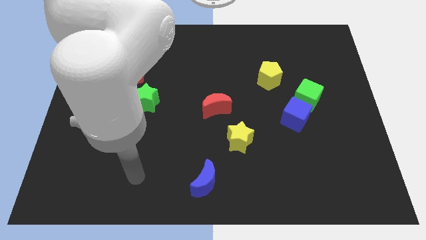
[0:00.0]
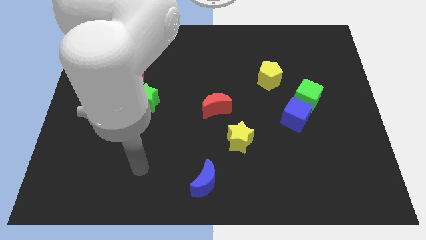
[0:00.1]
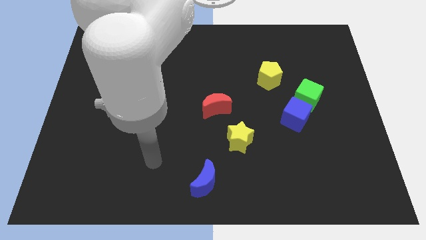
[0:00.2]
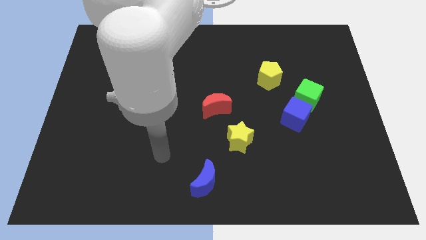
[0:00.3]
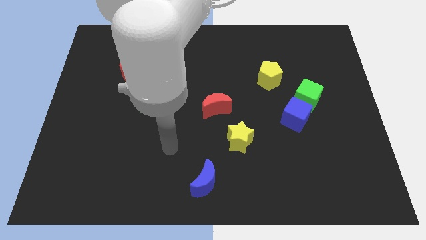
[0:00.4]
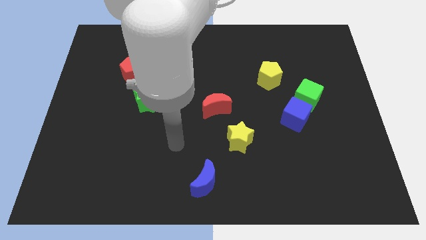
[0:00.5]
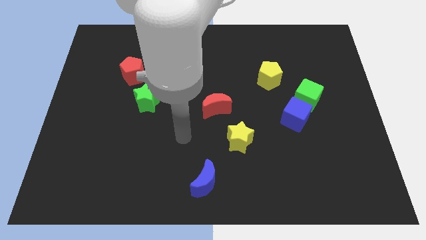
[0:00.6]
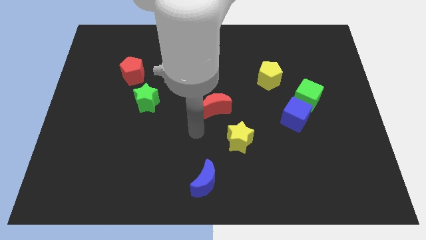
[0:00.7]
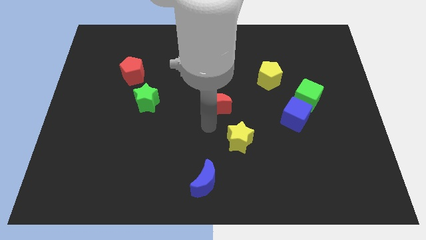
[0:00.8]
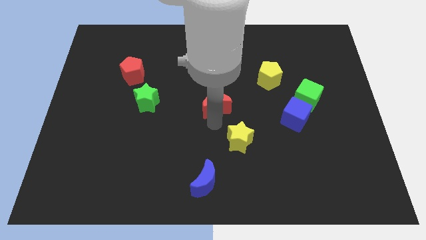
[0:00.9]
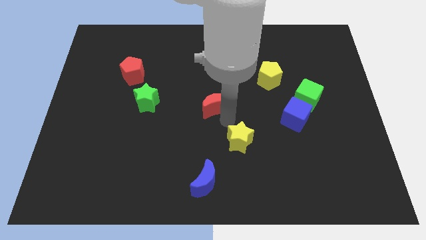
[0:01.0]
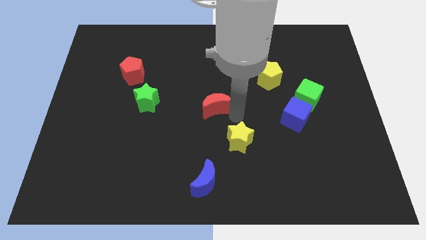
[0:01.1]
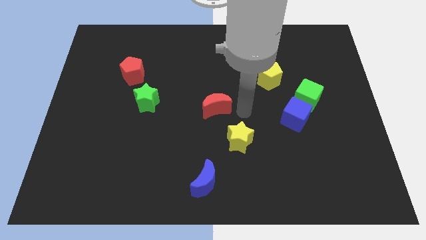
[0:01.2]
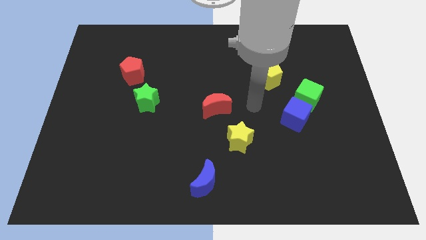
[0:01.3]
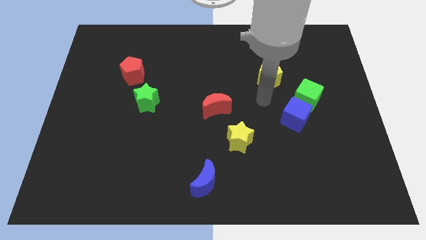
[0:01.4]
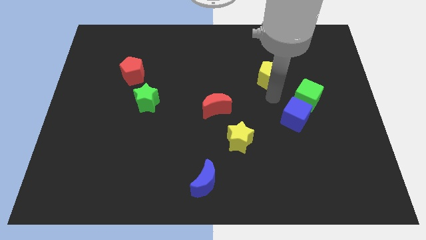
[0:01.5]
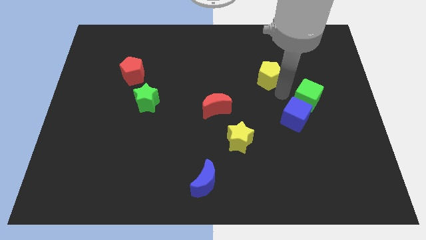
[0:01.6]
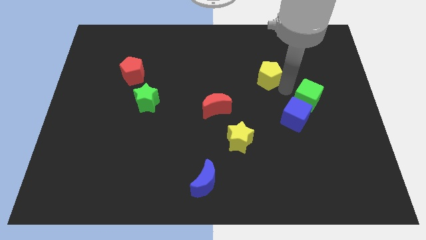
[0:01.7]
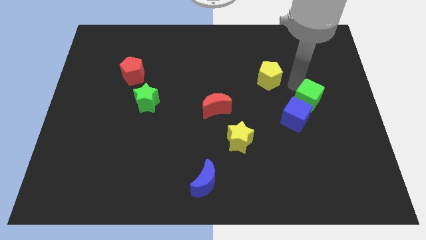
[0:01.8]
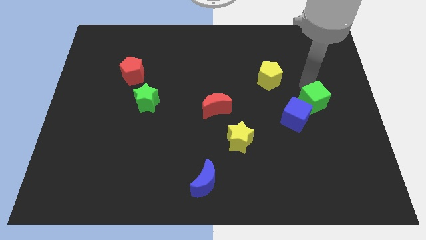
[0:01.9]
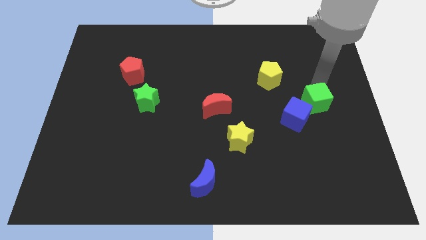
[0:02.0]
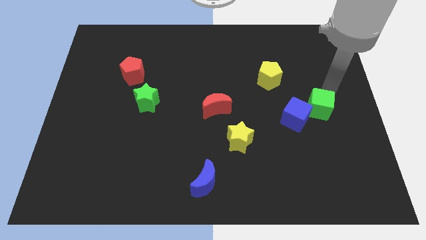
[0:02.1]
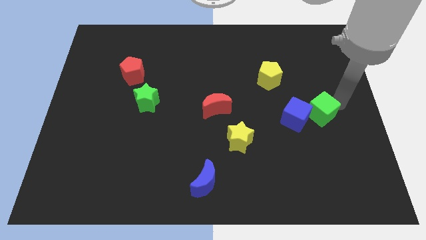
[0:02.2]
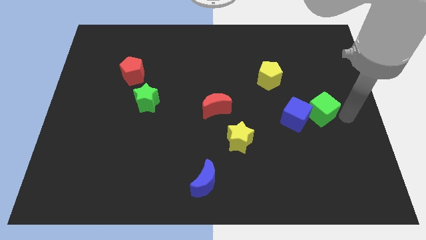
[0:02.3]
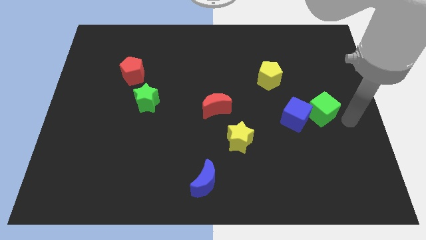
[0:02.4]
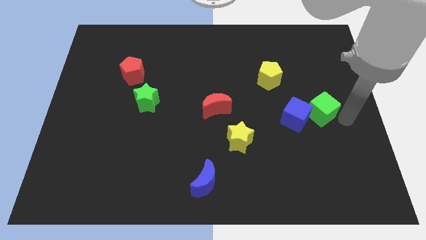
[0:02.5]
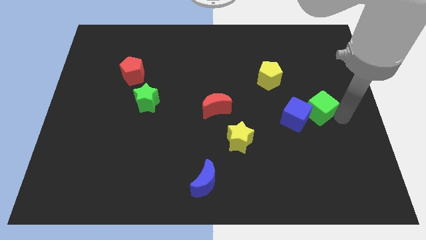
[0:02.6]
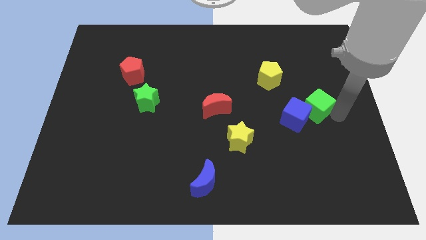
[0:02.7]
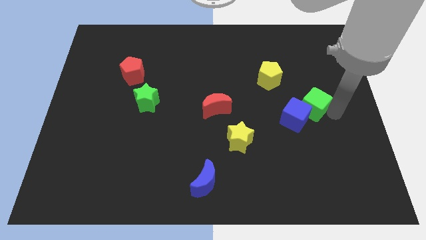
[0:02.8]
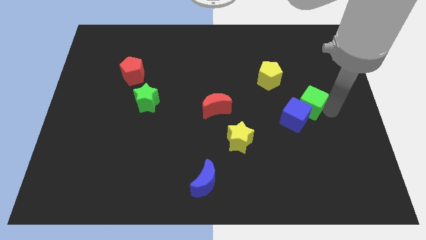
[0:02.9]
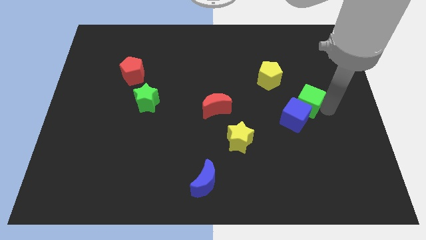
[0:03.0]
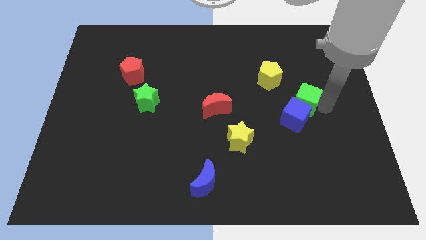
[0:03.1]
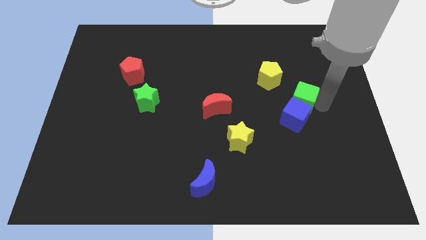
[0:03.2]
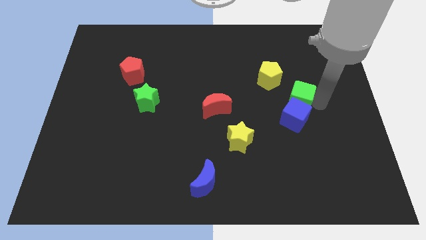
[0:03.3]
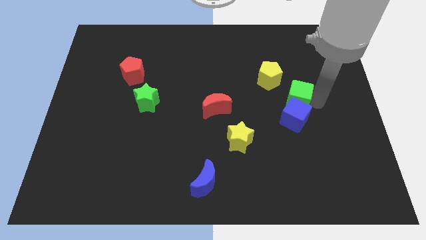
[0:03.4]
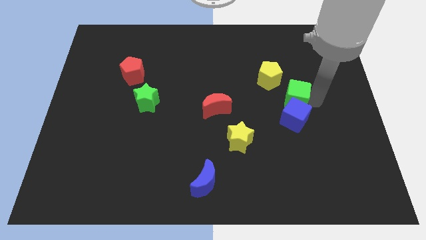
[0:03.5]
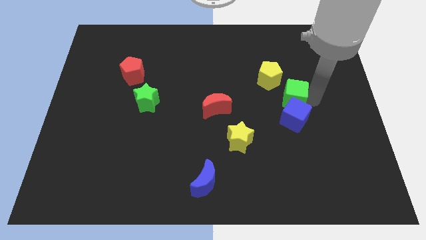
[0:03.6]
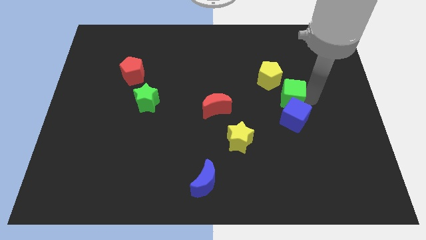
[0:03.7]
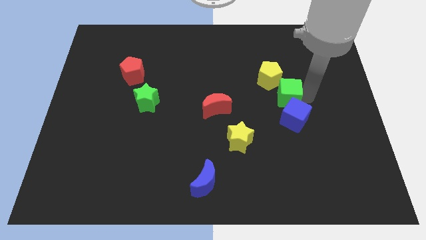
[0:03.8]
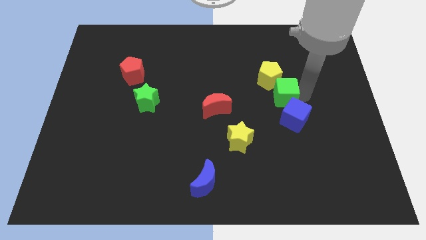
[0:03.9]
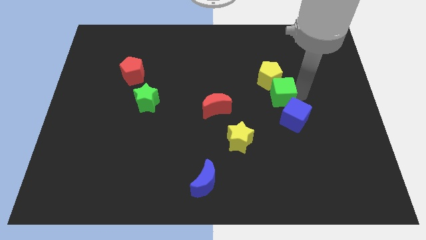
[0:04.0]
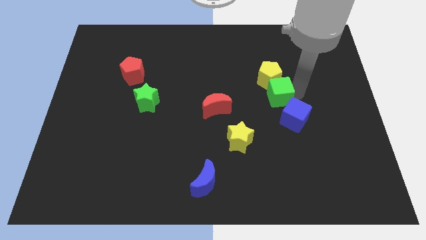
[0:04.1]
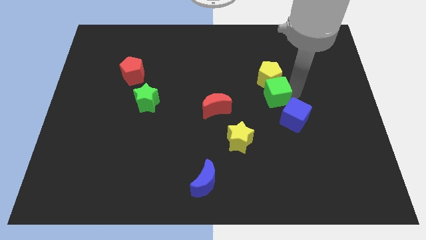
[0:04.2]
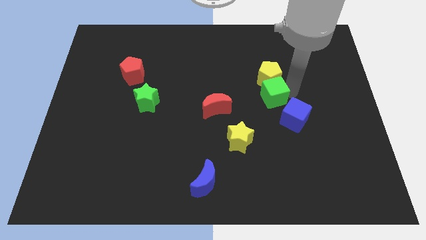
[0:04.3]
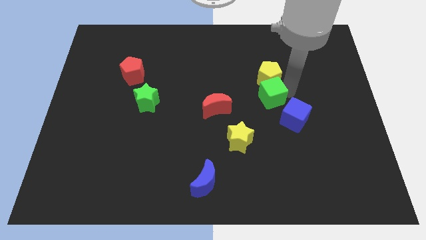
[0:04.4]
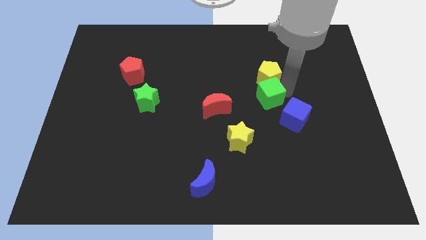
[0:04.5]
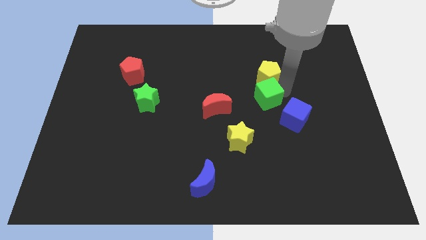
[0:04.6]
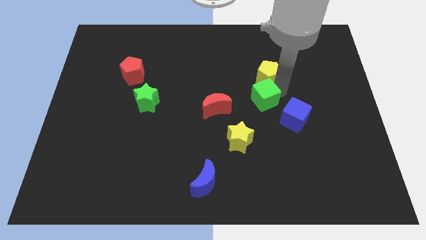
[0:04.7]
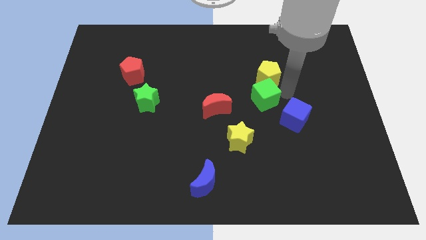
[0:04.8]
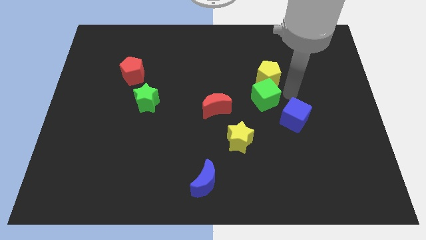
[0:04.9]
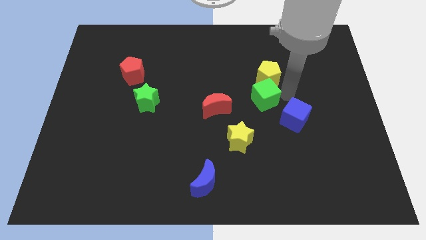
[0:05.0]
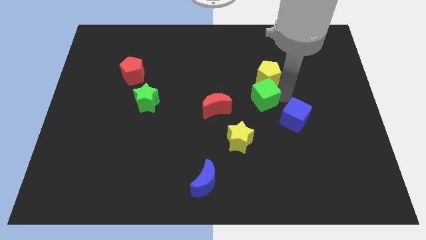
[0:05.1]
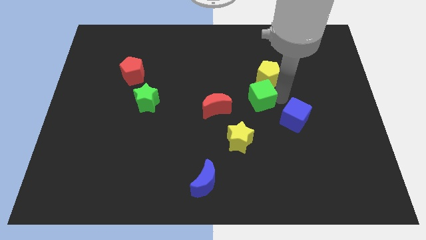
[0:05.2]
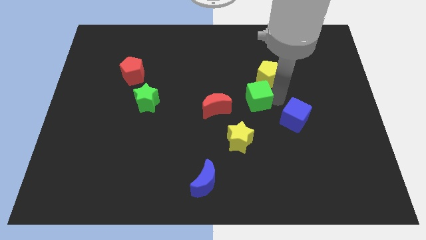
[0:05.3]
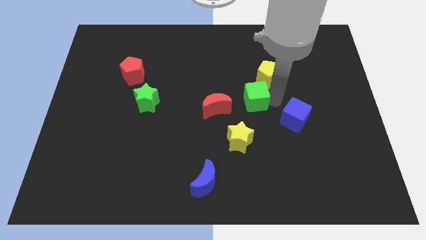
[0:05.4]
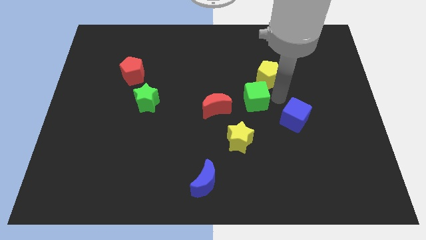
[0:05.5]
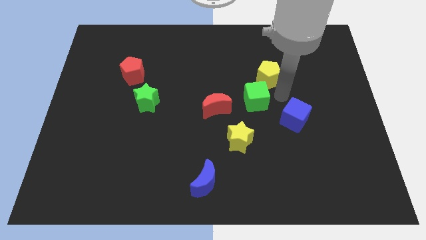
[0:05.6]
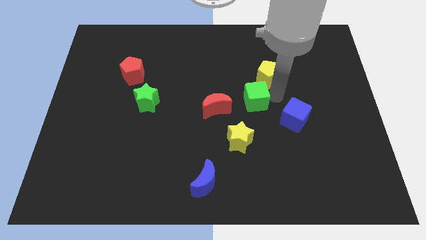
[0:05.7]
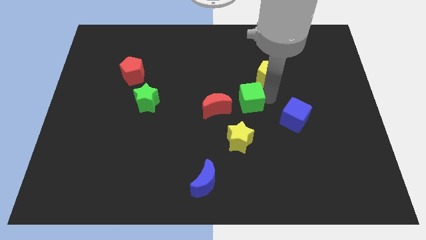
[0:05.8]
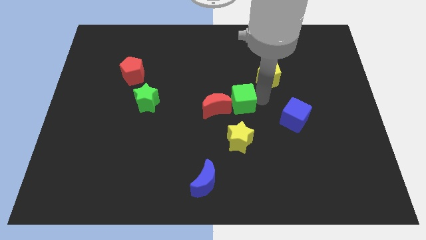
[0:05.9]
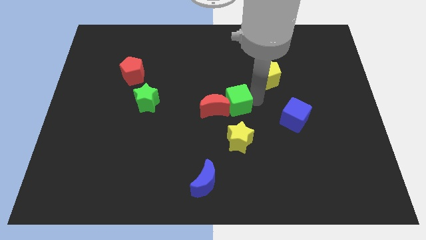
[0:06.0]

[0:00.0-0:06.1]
push the green cube towards the red moon

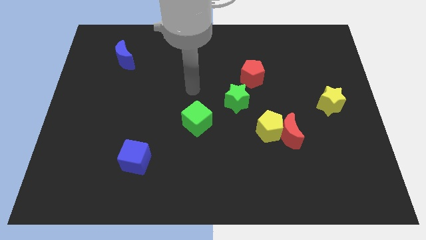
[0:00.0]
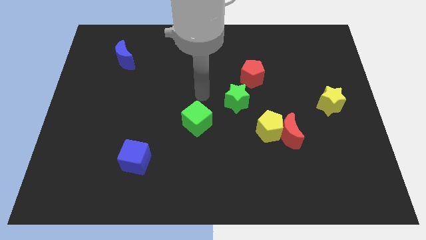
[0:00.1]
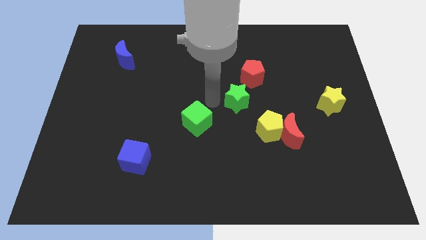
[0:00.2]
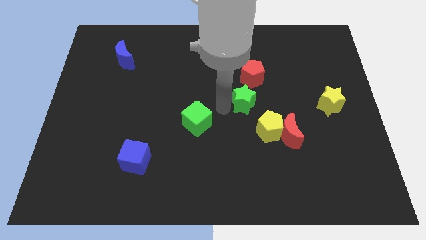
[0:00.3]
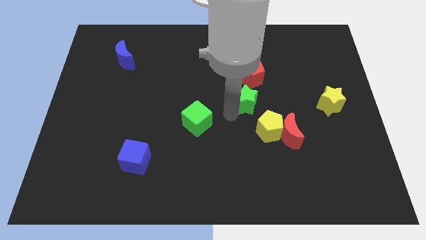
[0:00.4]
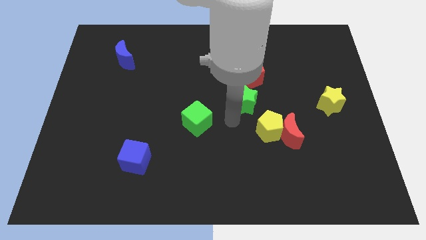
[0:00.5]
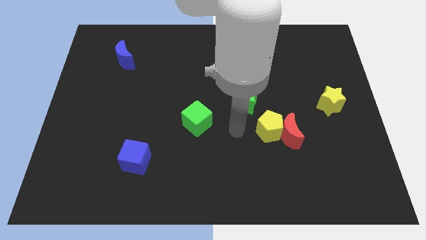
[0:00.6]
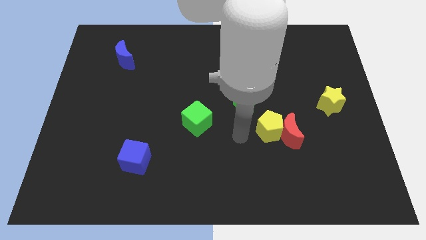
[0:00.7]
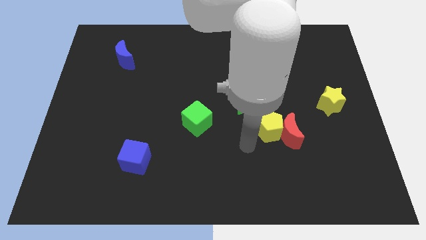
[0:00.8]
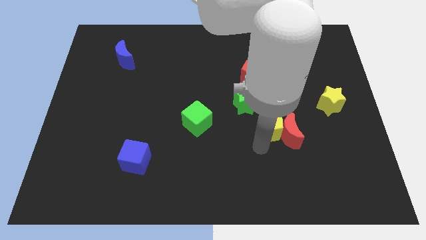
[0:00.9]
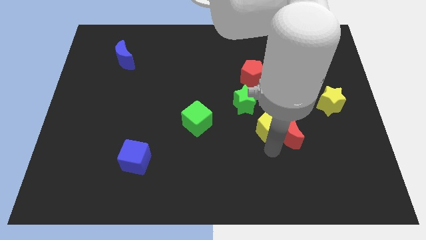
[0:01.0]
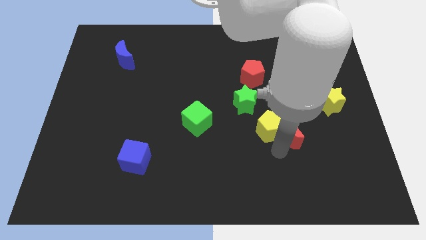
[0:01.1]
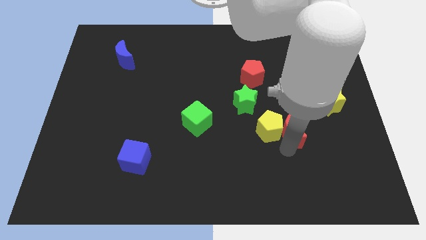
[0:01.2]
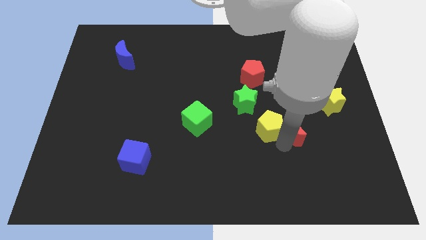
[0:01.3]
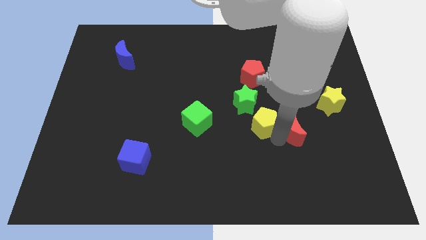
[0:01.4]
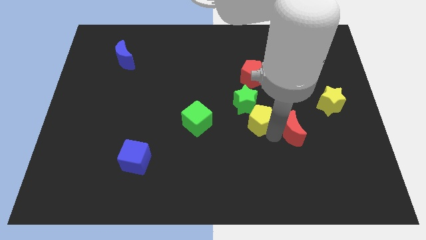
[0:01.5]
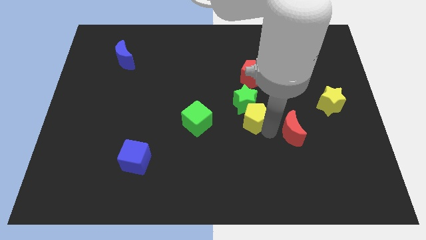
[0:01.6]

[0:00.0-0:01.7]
slide the yellow pentagon close to the green star

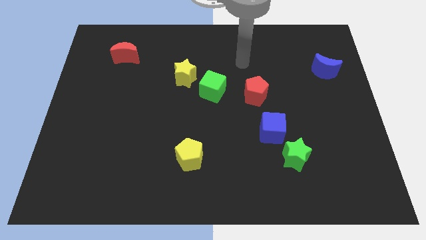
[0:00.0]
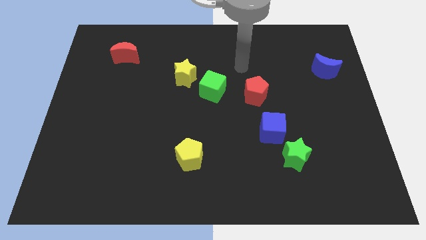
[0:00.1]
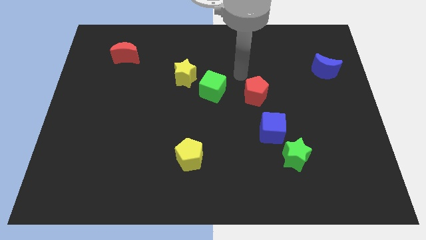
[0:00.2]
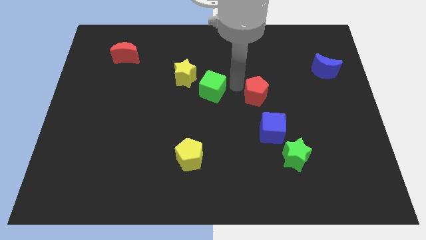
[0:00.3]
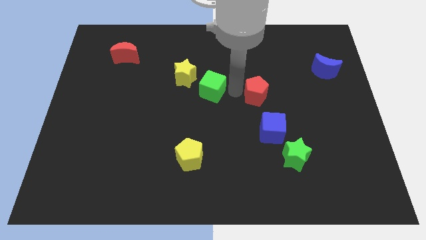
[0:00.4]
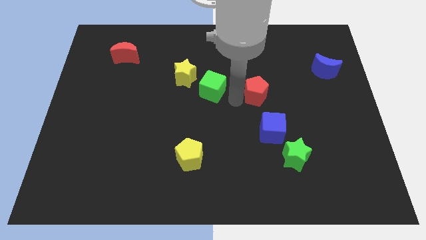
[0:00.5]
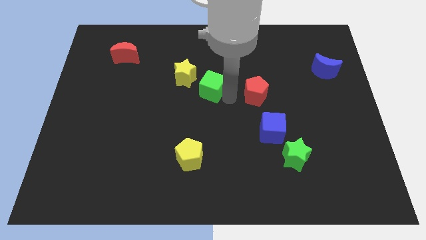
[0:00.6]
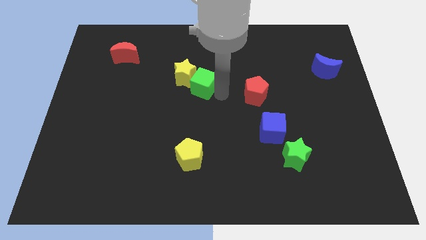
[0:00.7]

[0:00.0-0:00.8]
push the green cube to the yellow star
